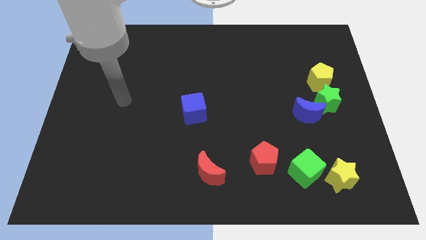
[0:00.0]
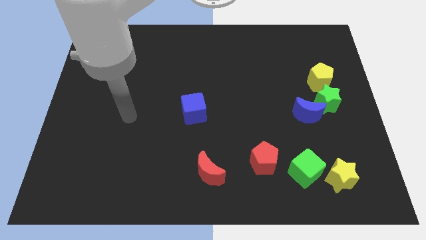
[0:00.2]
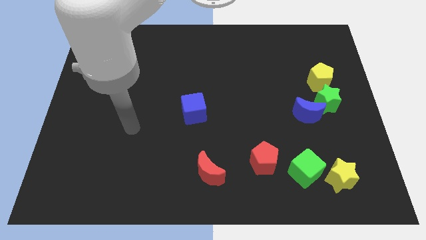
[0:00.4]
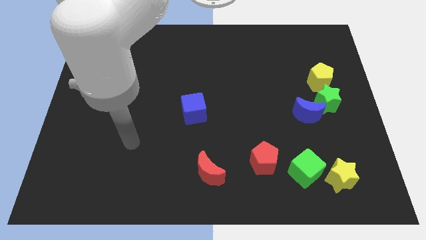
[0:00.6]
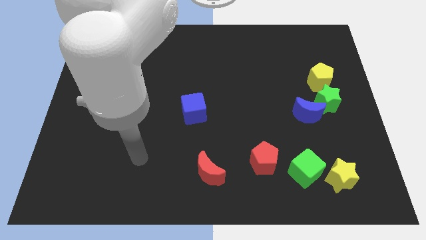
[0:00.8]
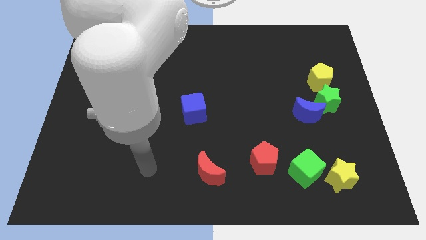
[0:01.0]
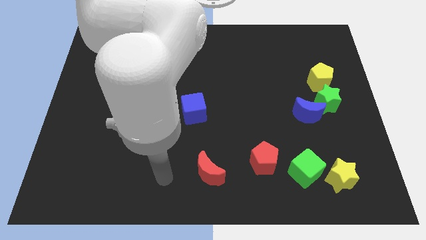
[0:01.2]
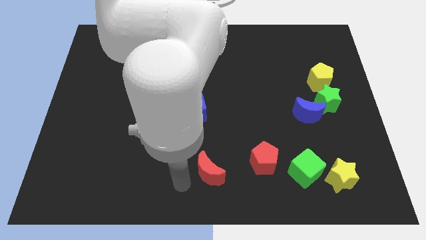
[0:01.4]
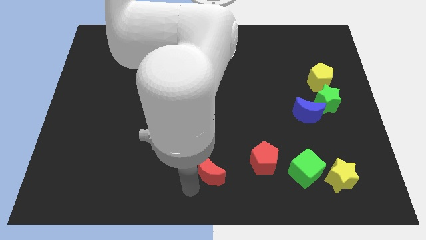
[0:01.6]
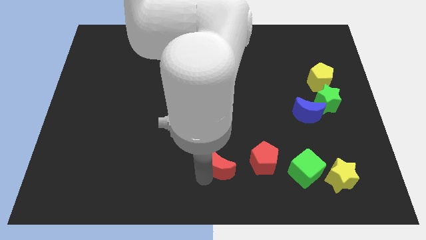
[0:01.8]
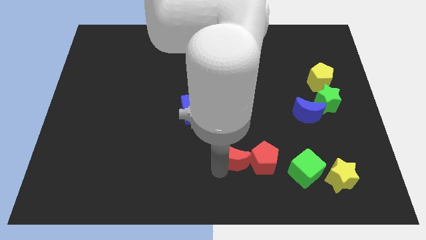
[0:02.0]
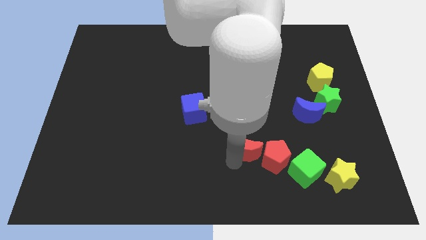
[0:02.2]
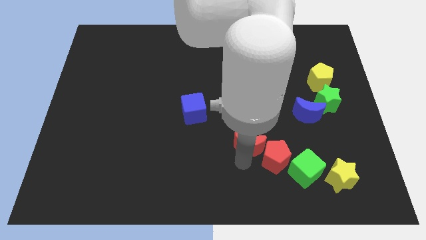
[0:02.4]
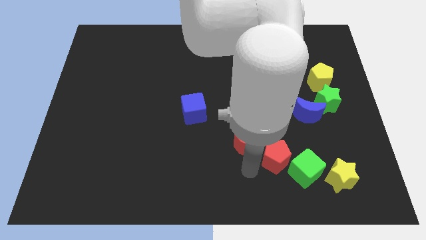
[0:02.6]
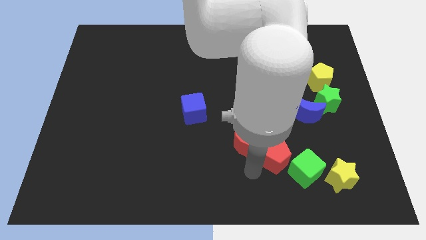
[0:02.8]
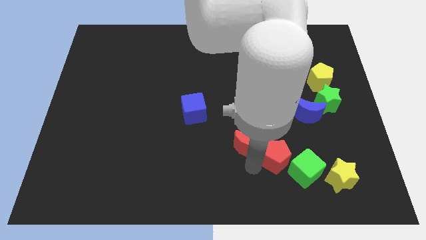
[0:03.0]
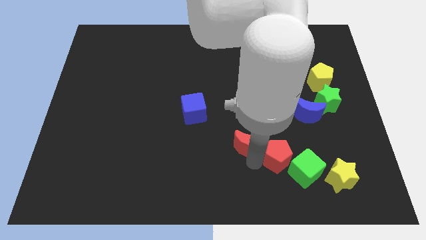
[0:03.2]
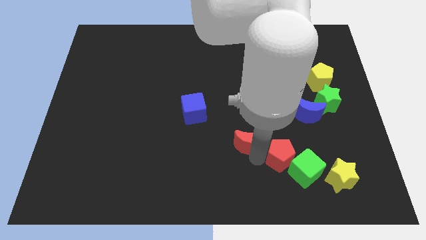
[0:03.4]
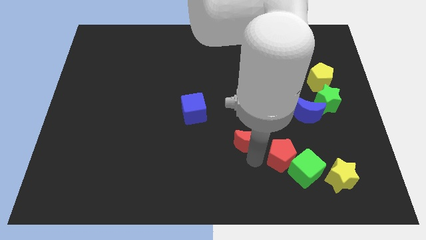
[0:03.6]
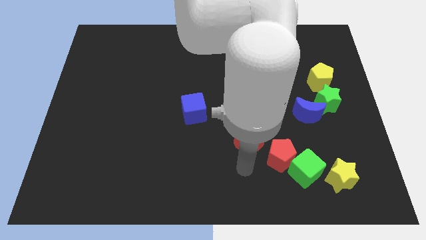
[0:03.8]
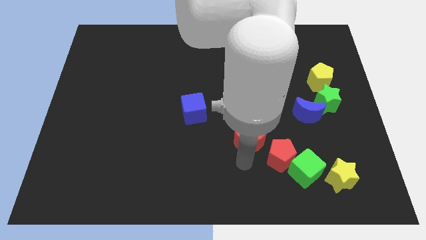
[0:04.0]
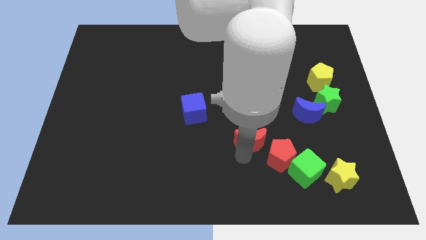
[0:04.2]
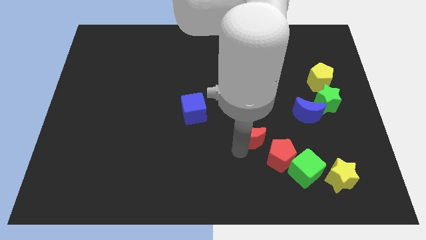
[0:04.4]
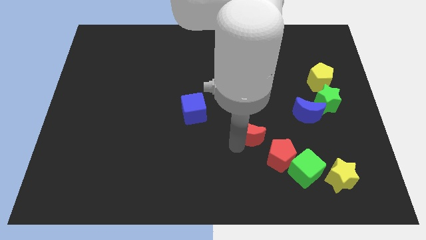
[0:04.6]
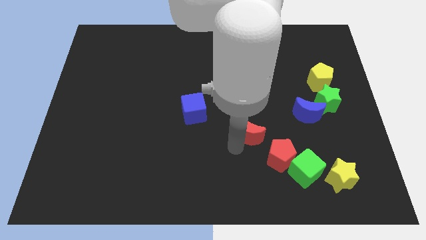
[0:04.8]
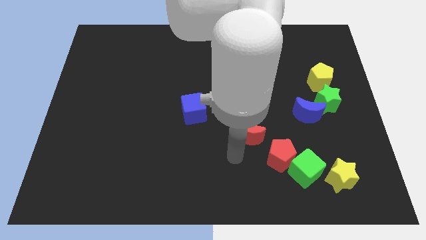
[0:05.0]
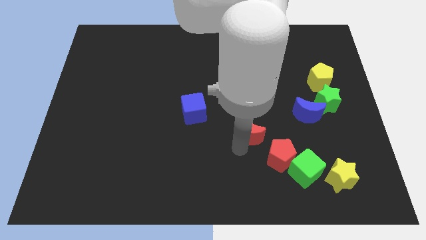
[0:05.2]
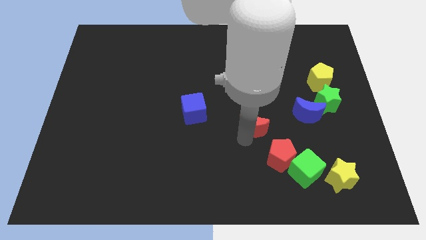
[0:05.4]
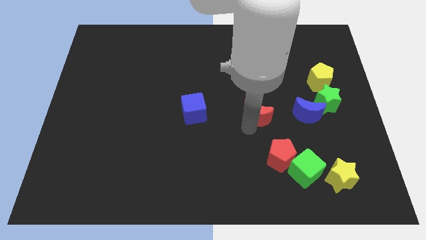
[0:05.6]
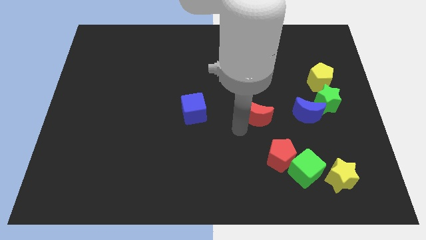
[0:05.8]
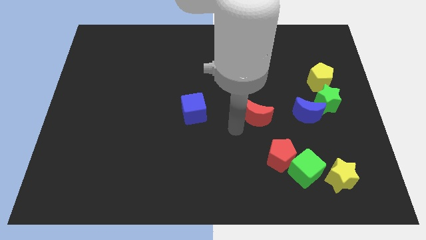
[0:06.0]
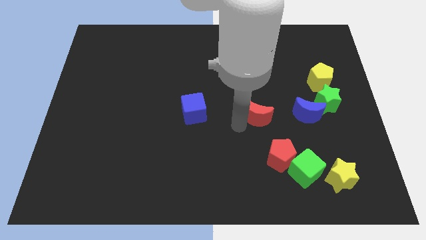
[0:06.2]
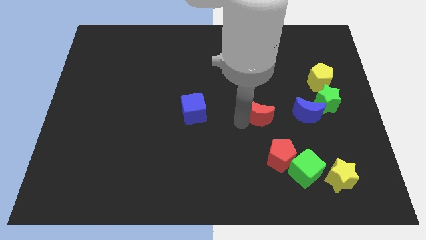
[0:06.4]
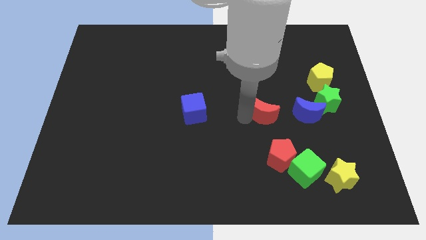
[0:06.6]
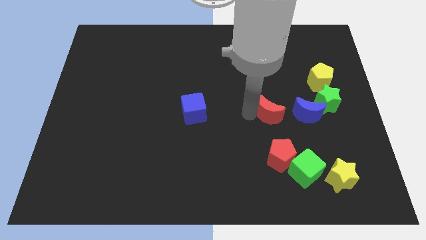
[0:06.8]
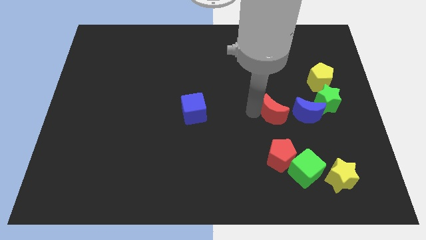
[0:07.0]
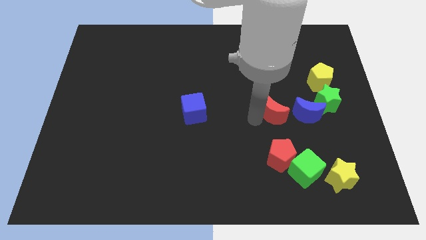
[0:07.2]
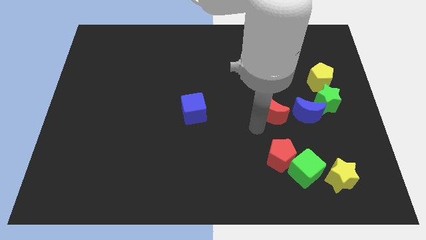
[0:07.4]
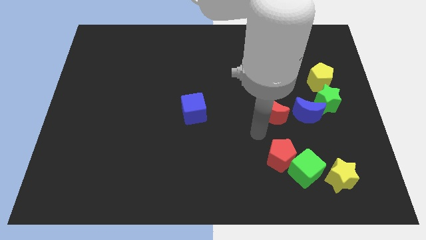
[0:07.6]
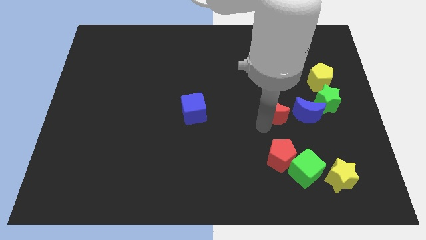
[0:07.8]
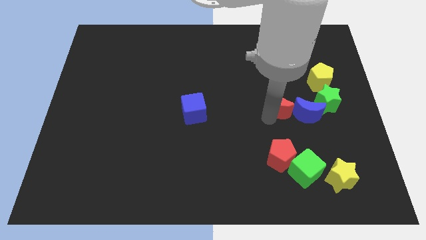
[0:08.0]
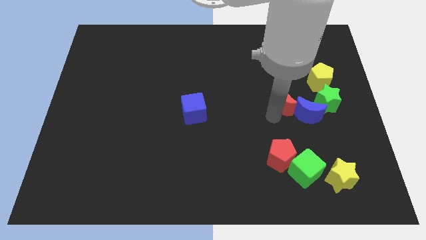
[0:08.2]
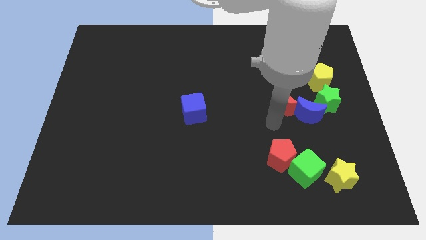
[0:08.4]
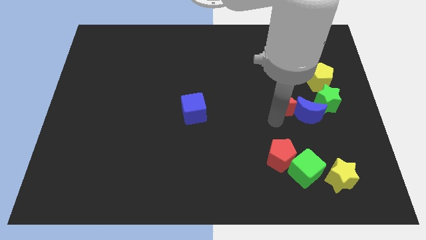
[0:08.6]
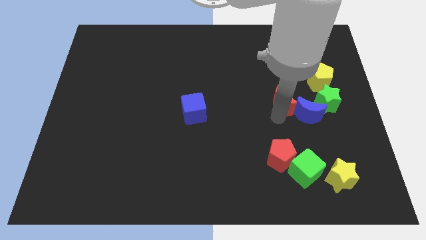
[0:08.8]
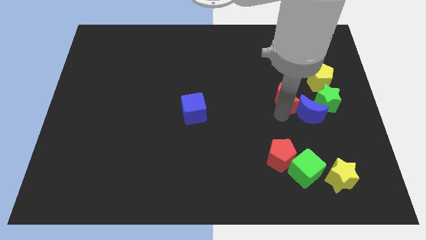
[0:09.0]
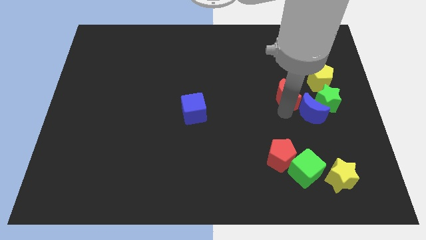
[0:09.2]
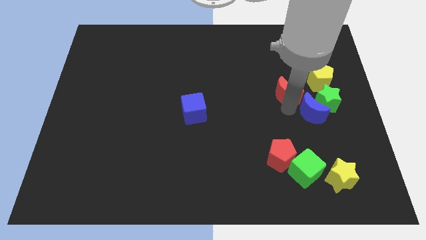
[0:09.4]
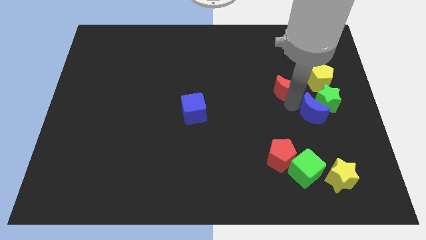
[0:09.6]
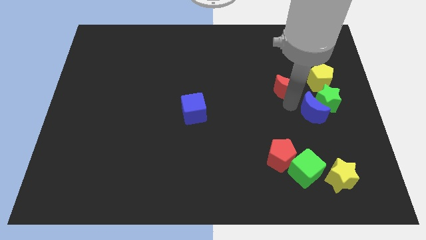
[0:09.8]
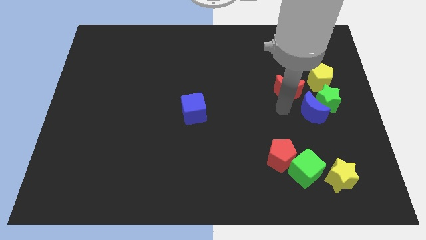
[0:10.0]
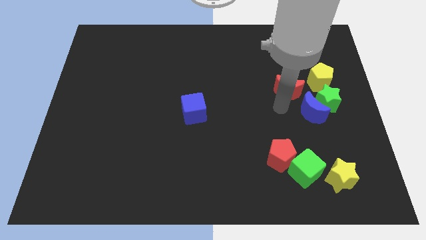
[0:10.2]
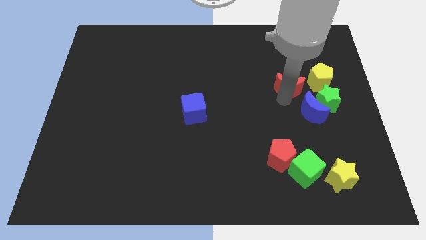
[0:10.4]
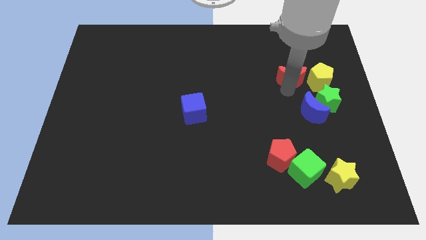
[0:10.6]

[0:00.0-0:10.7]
slide the red moon to the top left side of the yellow pentagon

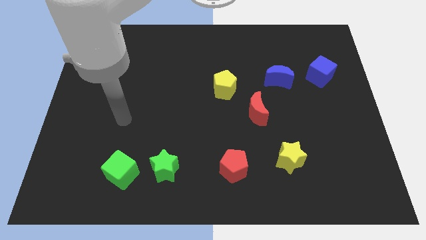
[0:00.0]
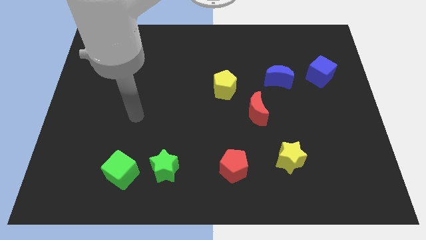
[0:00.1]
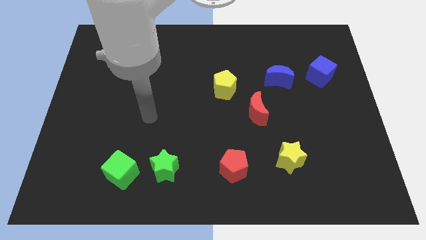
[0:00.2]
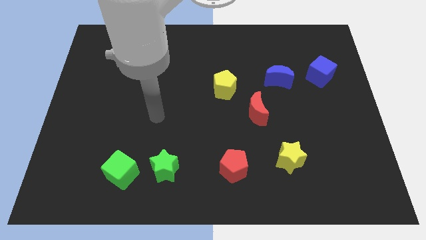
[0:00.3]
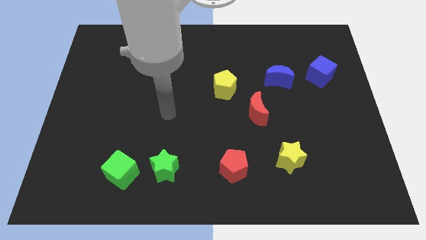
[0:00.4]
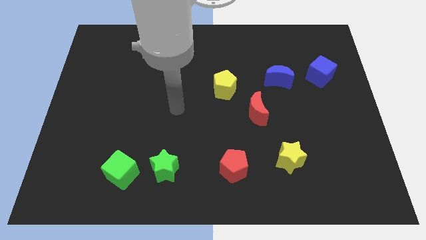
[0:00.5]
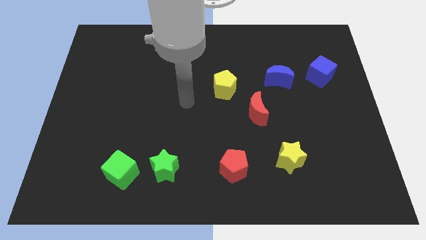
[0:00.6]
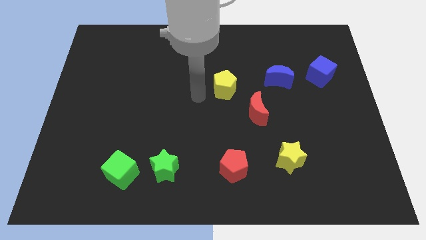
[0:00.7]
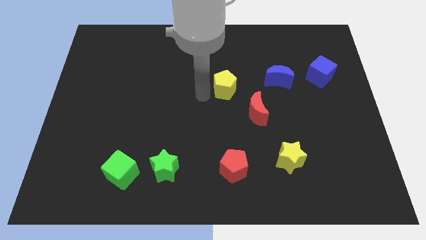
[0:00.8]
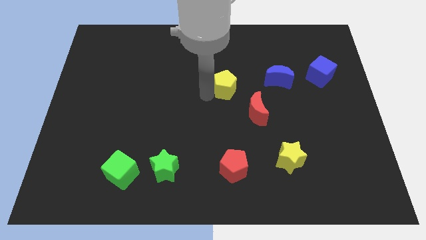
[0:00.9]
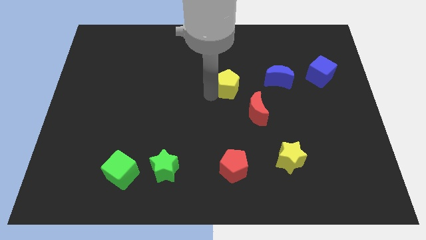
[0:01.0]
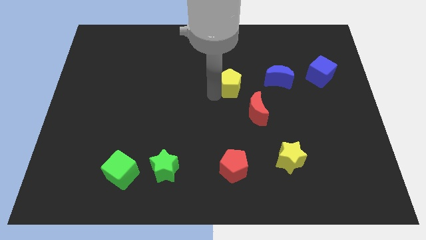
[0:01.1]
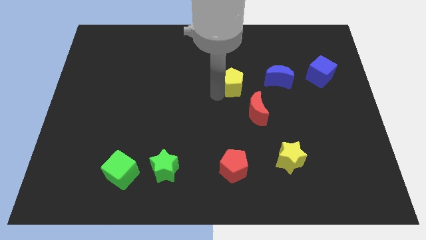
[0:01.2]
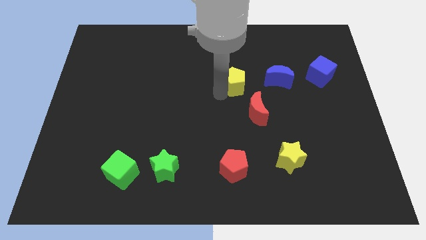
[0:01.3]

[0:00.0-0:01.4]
push the yellow pentagon above the red moon
